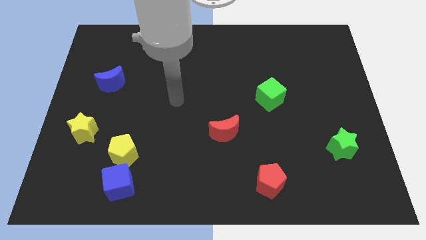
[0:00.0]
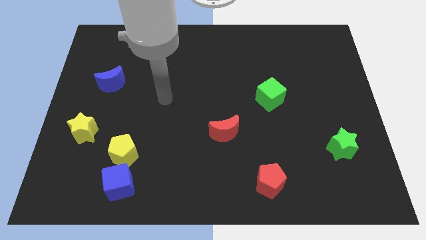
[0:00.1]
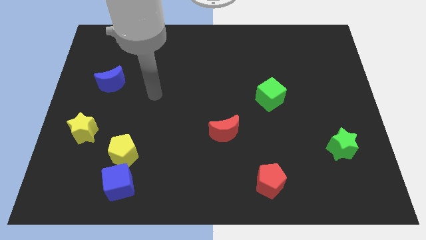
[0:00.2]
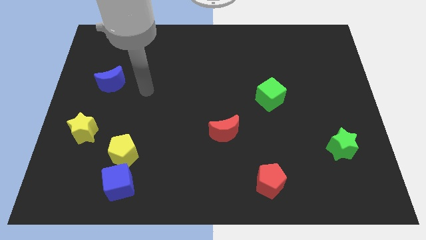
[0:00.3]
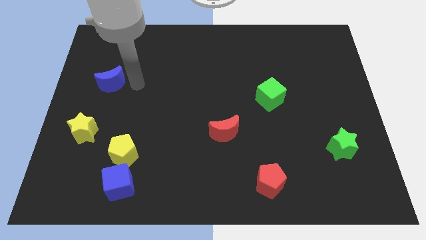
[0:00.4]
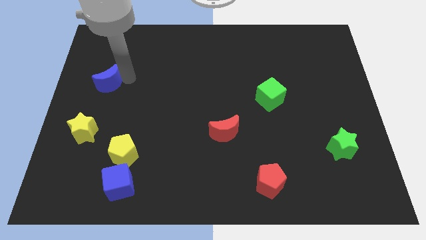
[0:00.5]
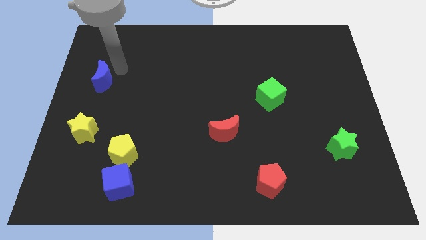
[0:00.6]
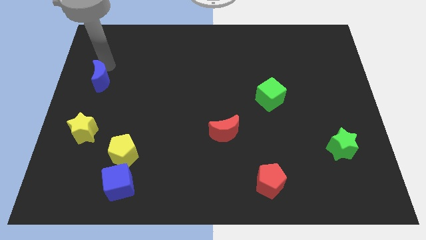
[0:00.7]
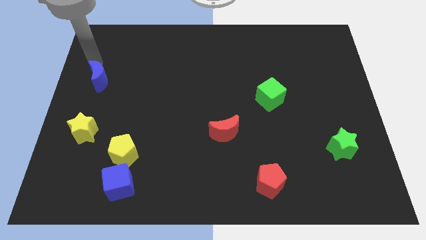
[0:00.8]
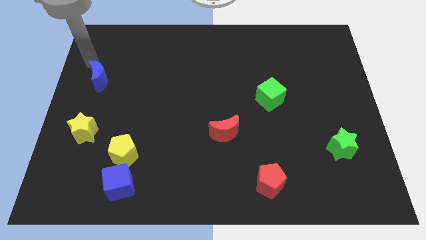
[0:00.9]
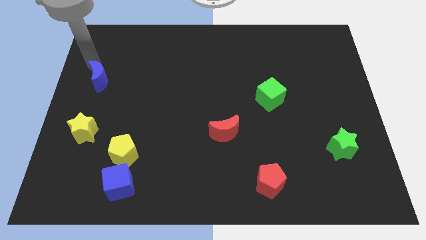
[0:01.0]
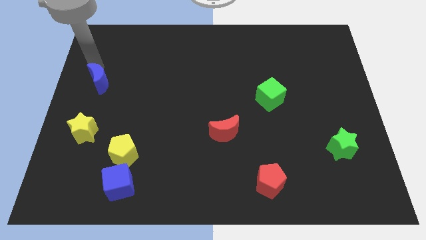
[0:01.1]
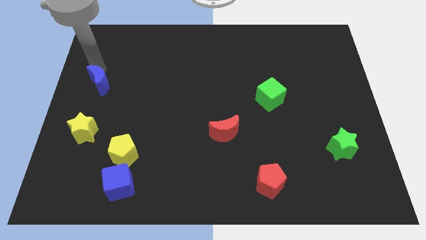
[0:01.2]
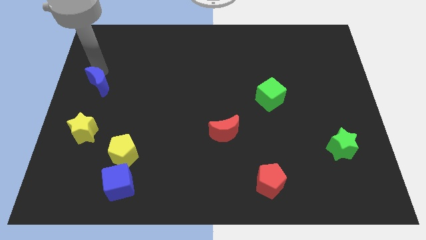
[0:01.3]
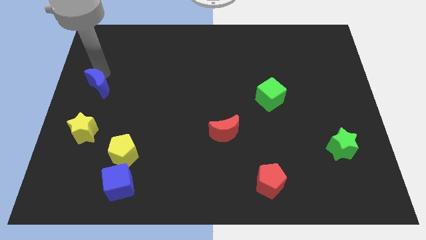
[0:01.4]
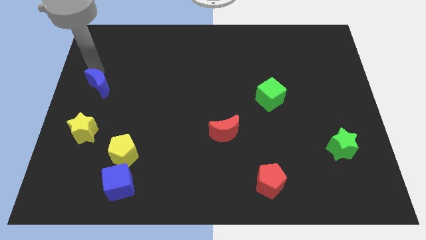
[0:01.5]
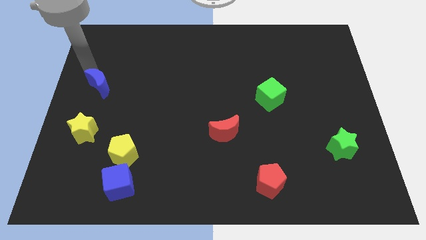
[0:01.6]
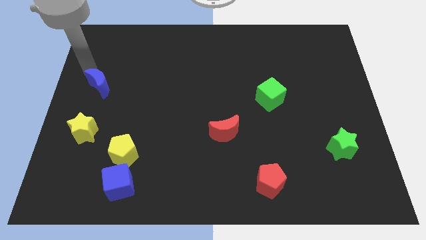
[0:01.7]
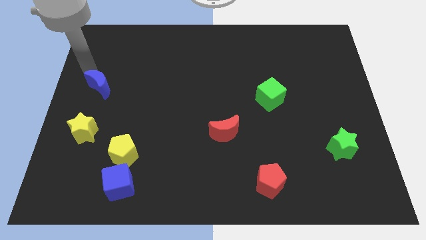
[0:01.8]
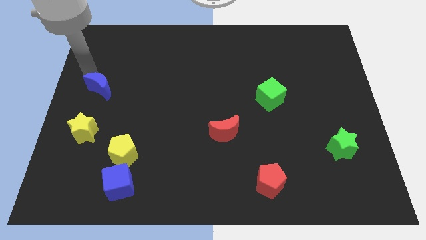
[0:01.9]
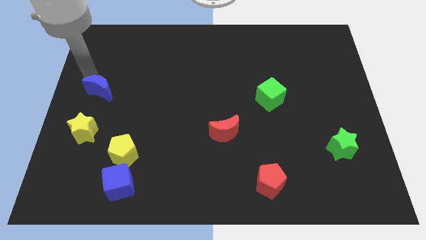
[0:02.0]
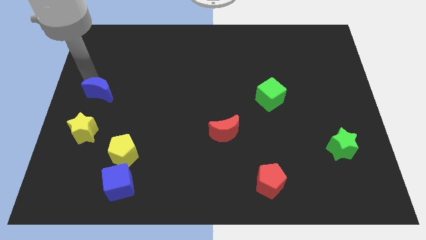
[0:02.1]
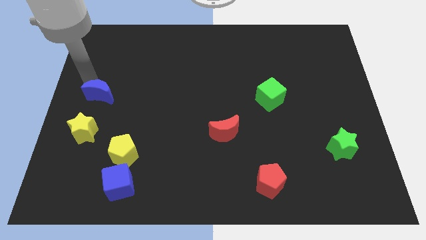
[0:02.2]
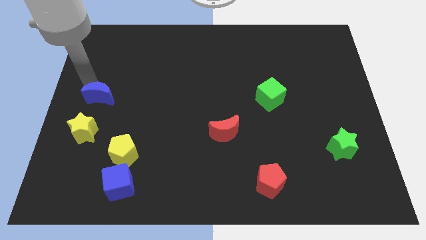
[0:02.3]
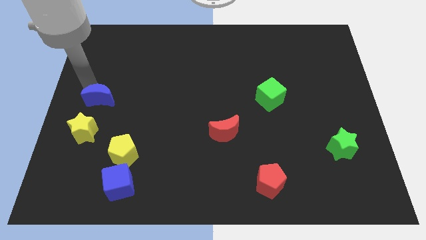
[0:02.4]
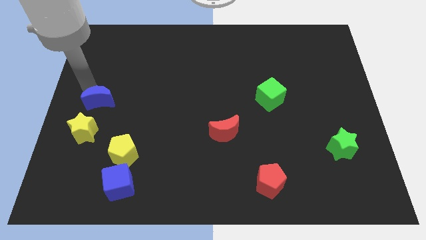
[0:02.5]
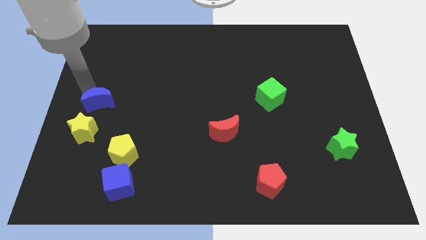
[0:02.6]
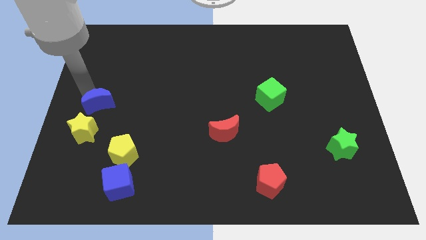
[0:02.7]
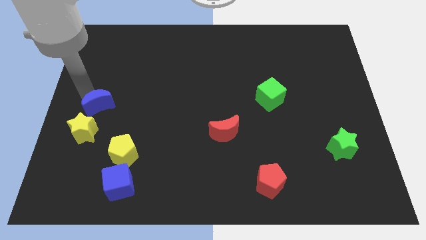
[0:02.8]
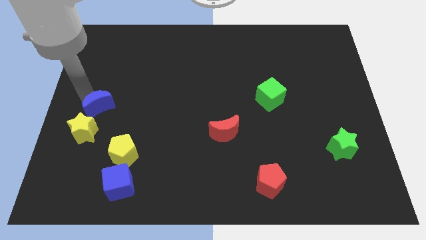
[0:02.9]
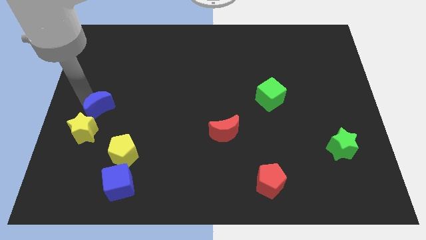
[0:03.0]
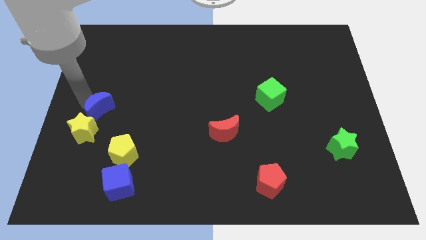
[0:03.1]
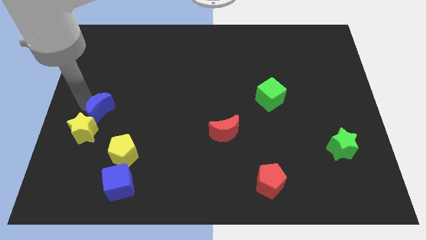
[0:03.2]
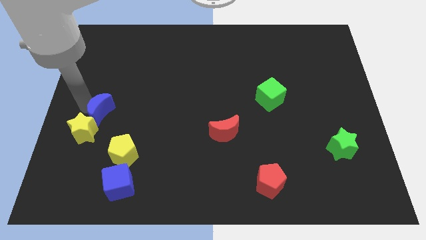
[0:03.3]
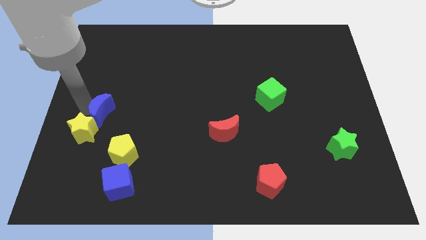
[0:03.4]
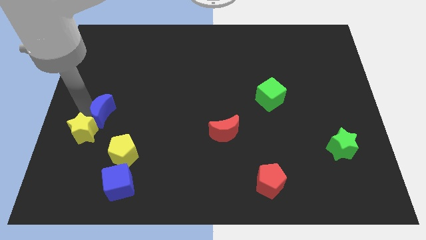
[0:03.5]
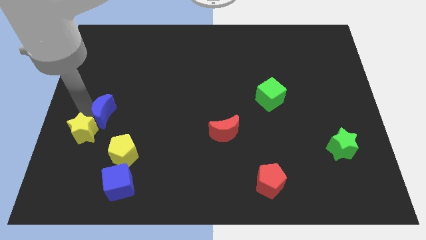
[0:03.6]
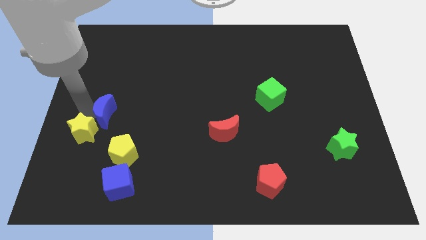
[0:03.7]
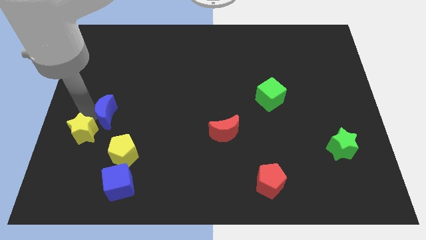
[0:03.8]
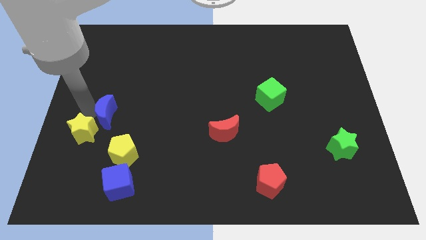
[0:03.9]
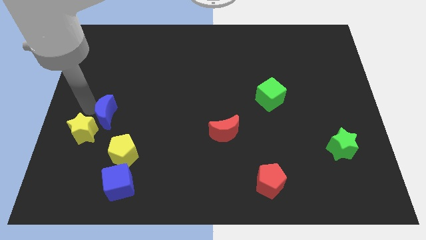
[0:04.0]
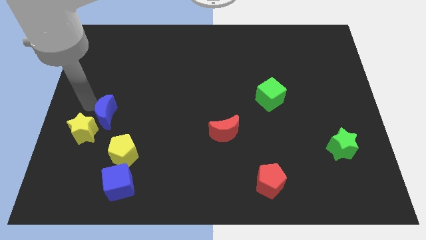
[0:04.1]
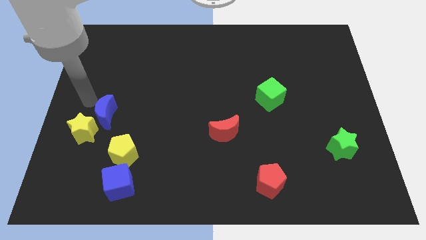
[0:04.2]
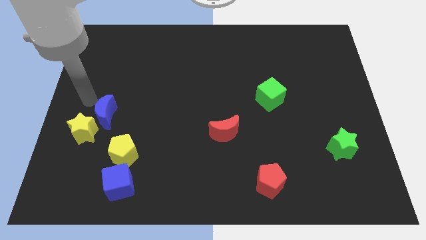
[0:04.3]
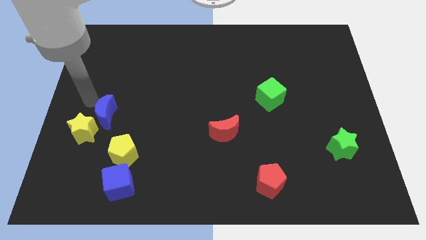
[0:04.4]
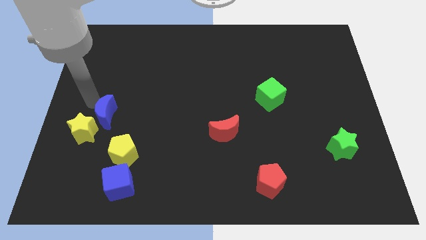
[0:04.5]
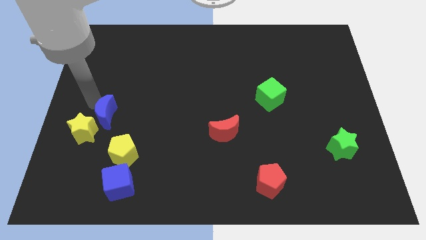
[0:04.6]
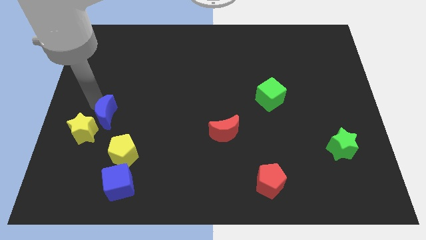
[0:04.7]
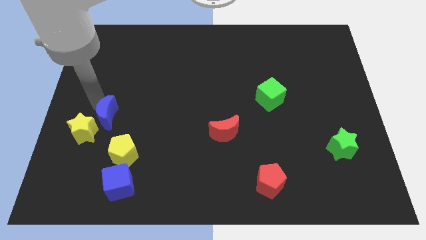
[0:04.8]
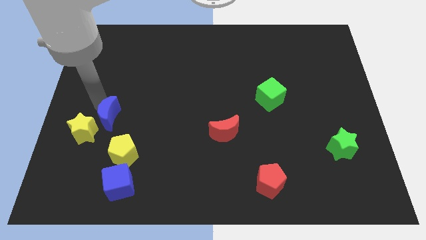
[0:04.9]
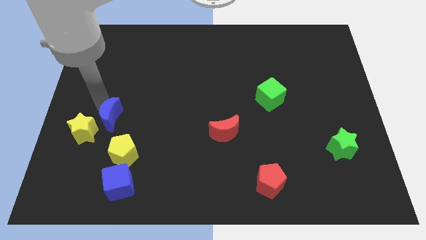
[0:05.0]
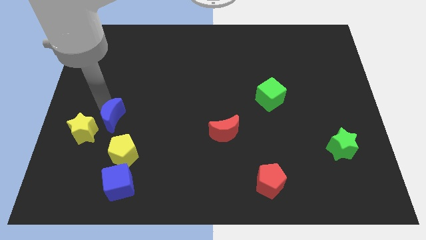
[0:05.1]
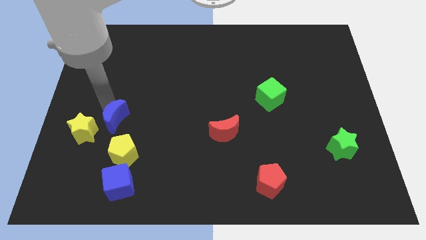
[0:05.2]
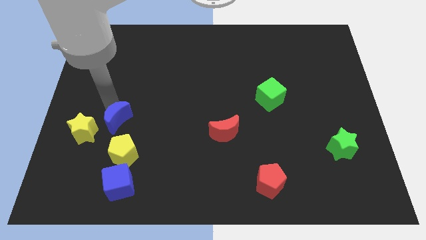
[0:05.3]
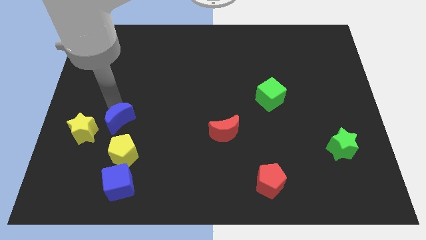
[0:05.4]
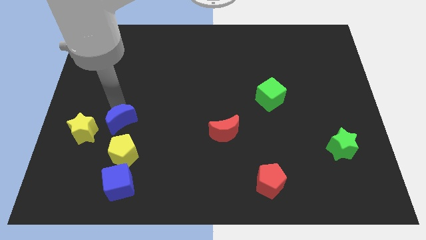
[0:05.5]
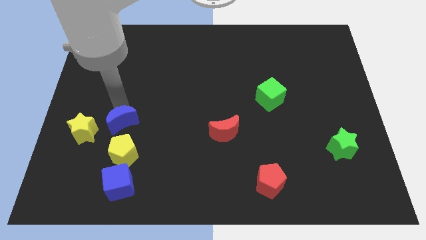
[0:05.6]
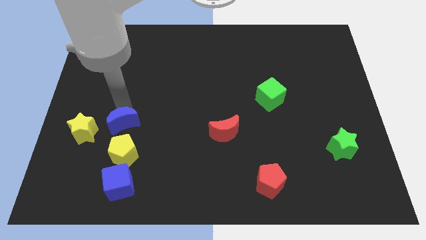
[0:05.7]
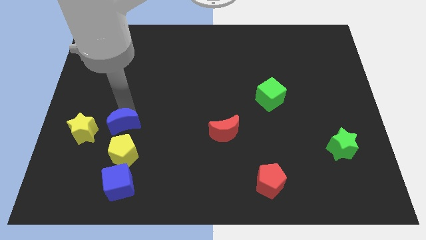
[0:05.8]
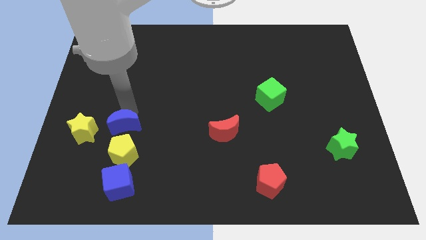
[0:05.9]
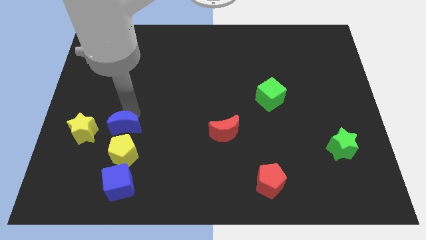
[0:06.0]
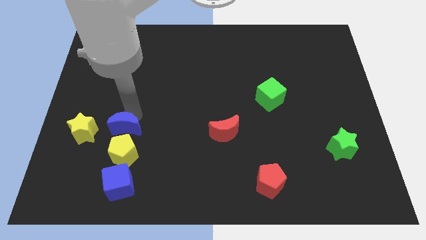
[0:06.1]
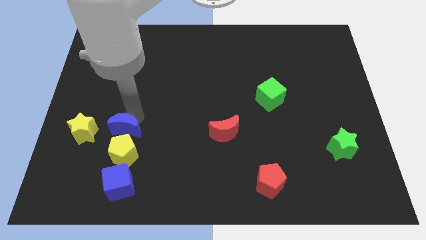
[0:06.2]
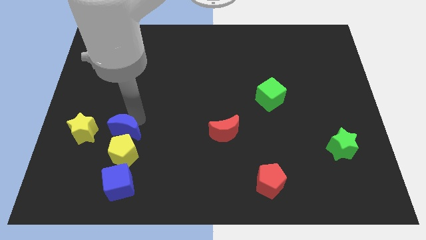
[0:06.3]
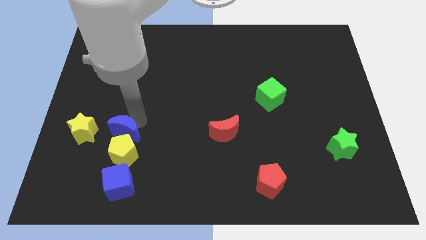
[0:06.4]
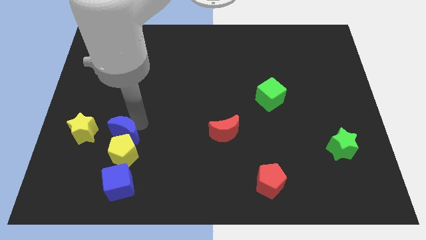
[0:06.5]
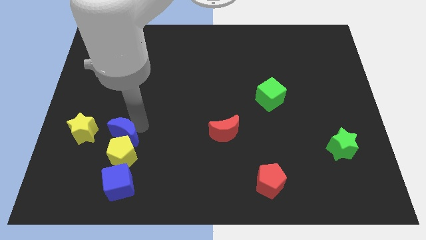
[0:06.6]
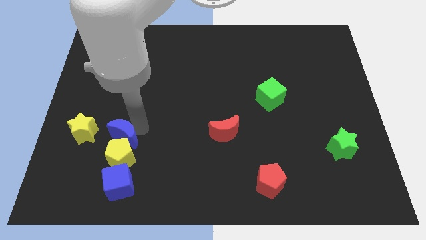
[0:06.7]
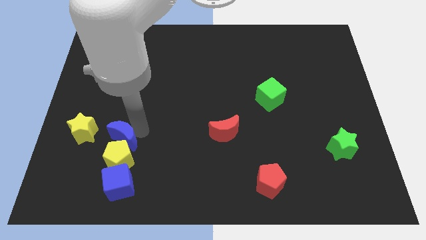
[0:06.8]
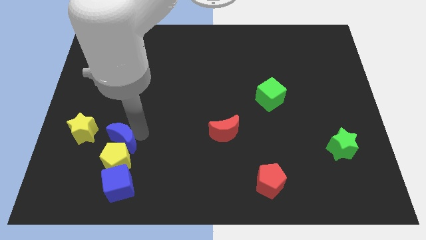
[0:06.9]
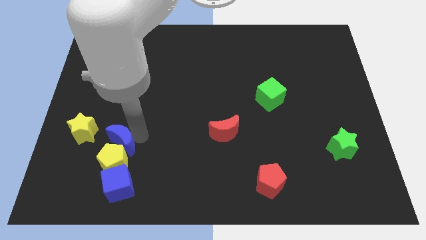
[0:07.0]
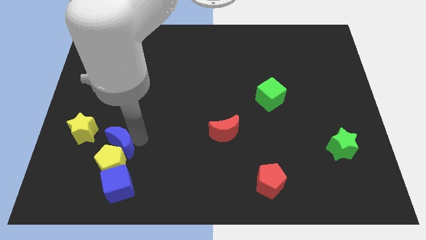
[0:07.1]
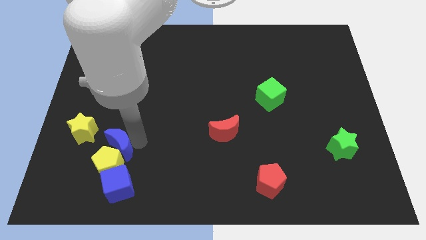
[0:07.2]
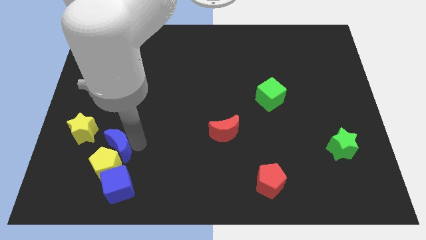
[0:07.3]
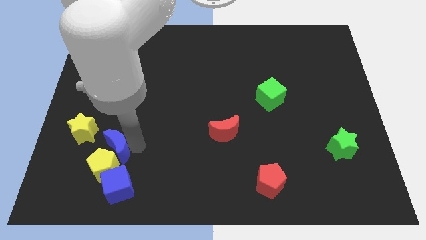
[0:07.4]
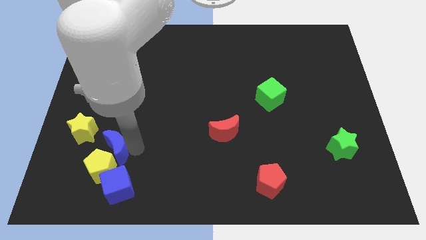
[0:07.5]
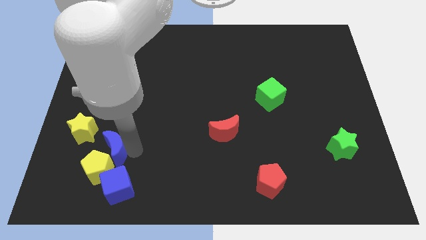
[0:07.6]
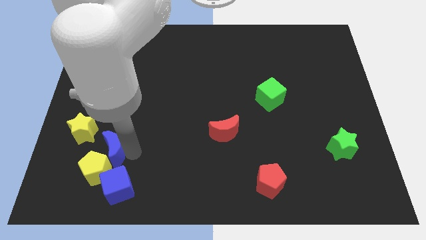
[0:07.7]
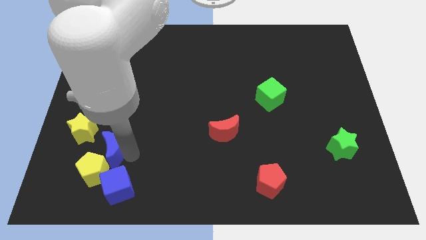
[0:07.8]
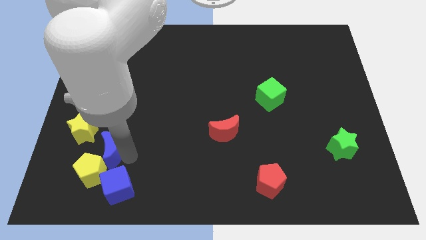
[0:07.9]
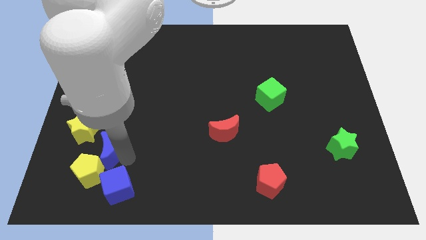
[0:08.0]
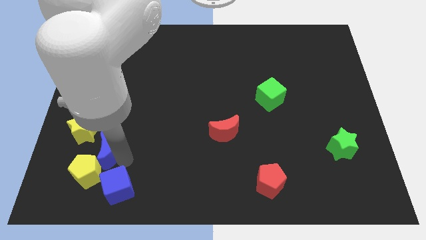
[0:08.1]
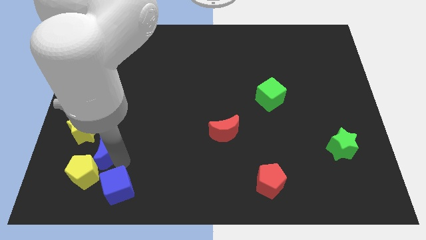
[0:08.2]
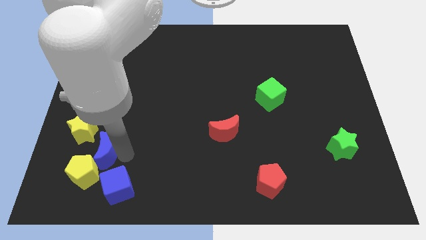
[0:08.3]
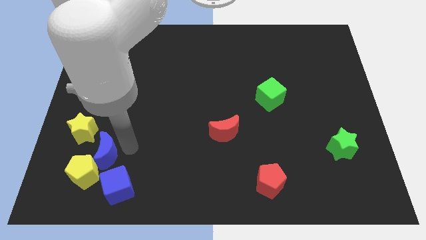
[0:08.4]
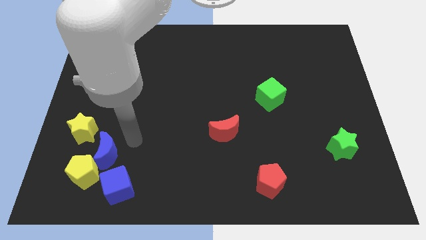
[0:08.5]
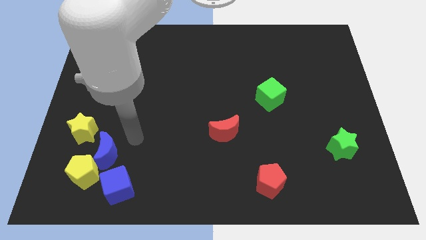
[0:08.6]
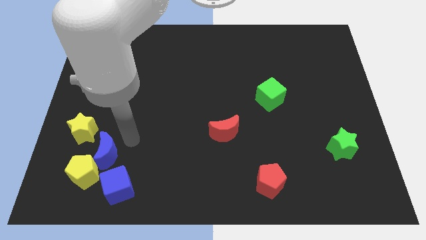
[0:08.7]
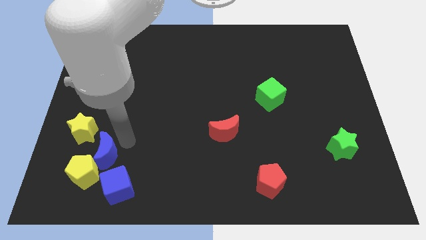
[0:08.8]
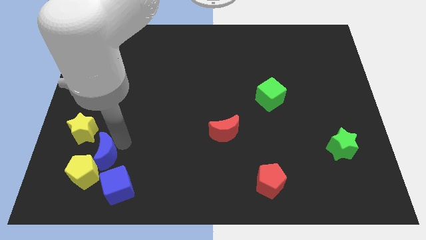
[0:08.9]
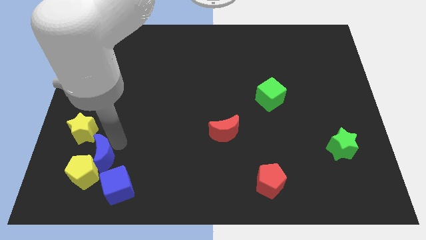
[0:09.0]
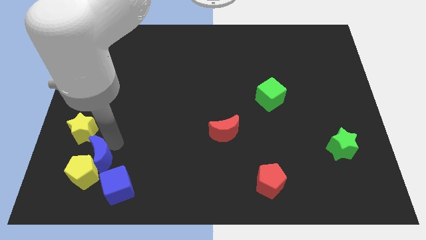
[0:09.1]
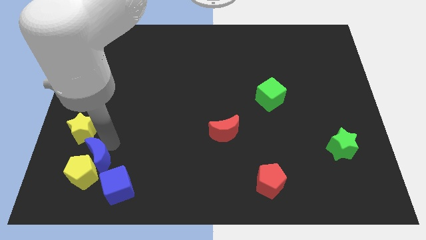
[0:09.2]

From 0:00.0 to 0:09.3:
move the blue moon to the bottom side of the yellow star

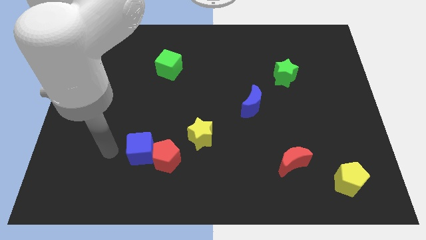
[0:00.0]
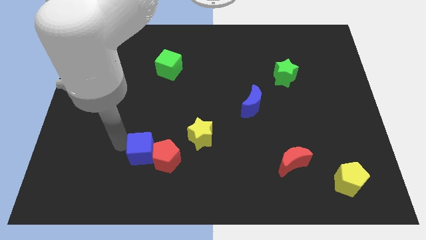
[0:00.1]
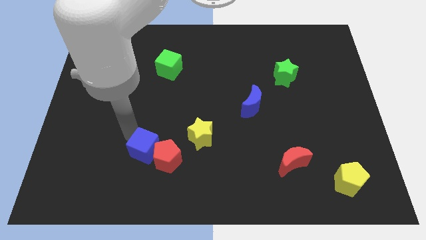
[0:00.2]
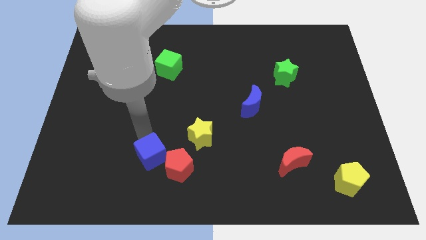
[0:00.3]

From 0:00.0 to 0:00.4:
push the yellow star to the top side of the red pentagon
